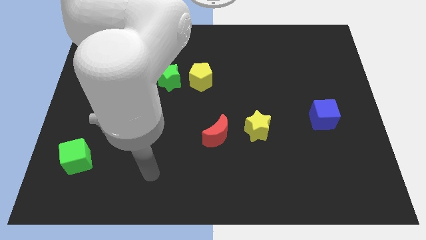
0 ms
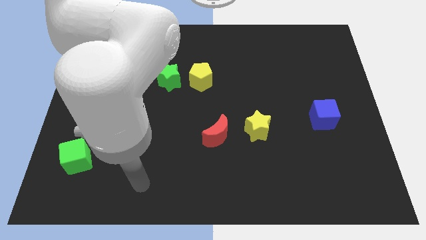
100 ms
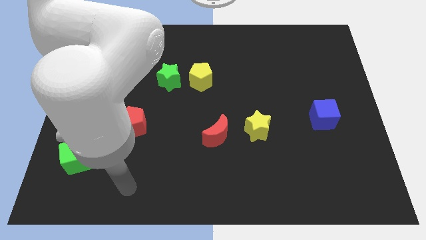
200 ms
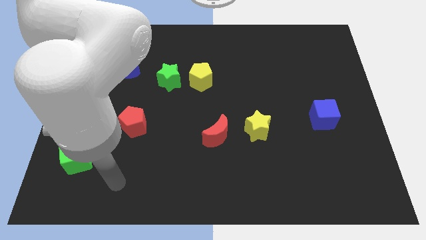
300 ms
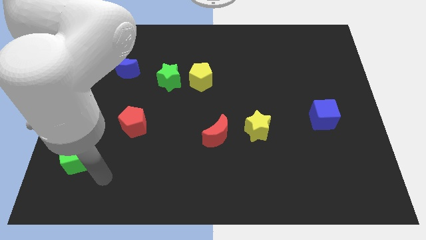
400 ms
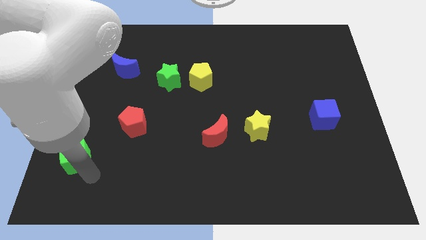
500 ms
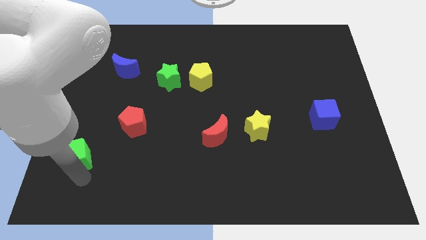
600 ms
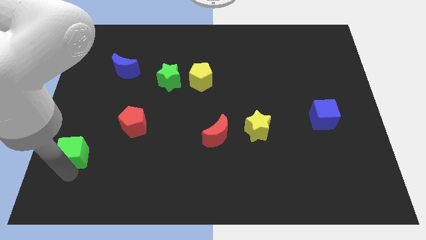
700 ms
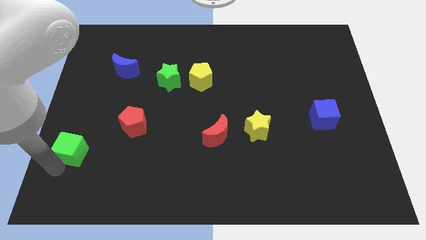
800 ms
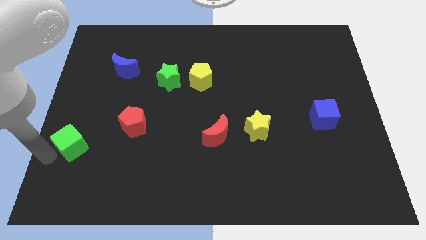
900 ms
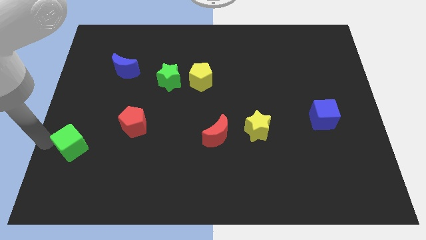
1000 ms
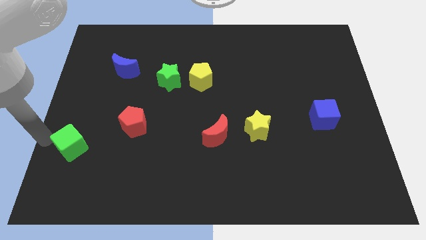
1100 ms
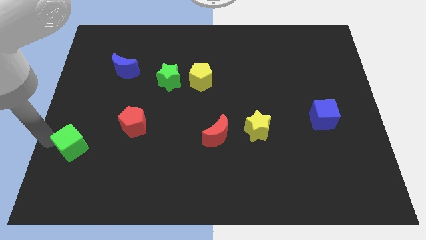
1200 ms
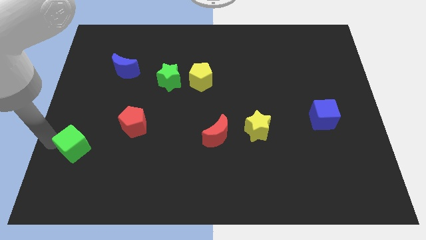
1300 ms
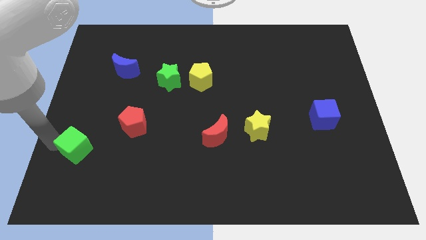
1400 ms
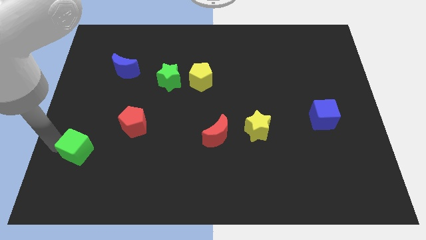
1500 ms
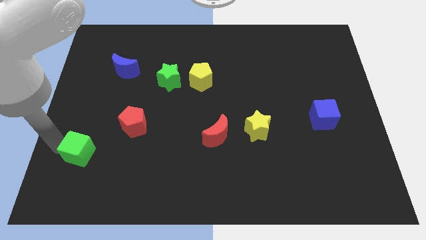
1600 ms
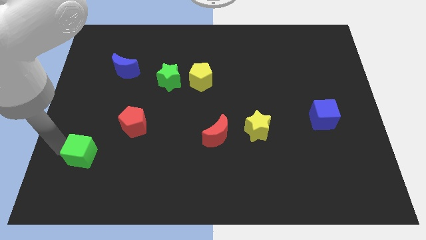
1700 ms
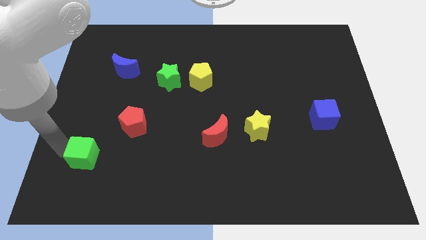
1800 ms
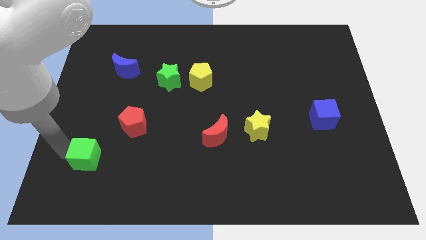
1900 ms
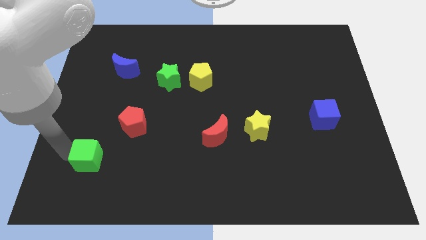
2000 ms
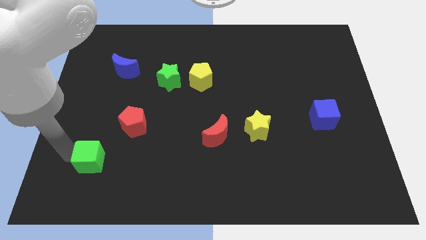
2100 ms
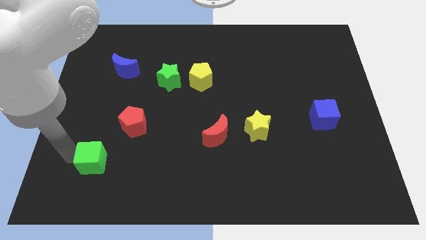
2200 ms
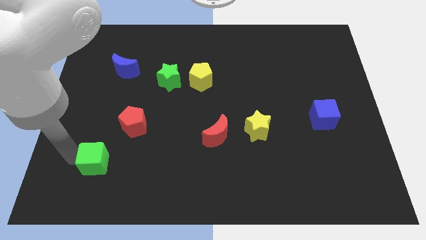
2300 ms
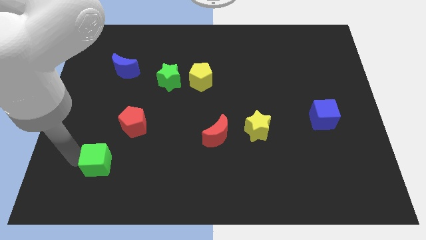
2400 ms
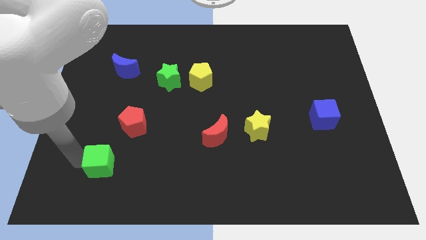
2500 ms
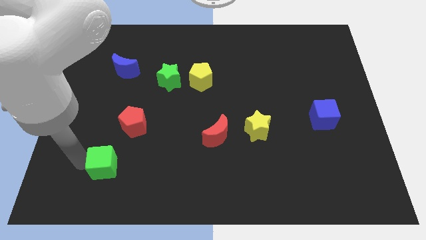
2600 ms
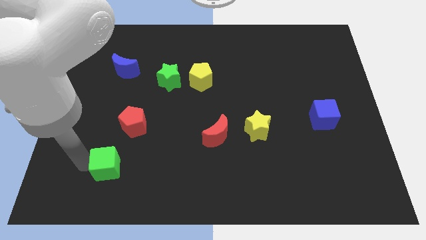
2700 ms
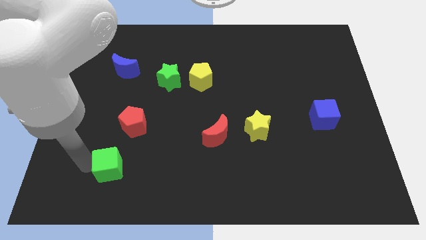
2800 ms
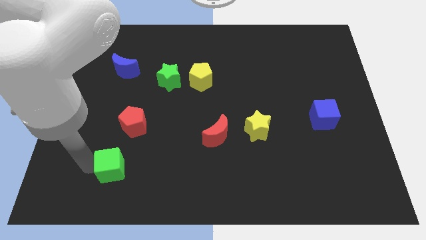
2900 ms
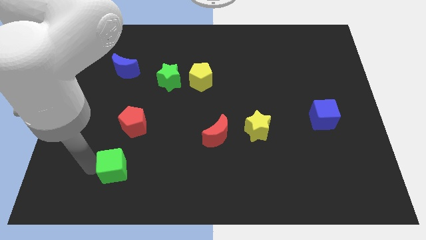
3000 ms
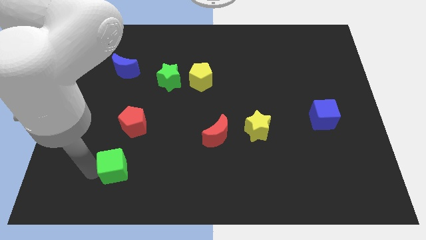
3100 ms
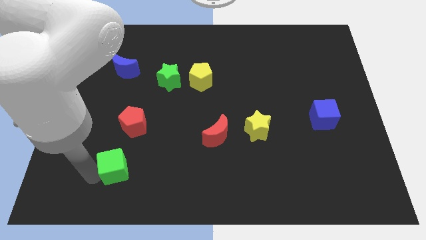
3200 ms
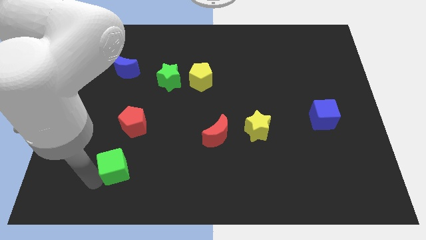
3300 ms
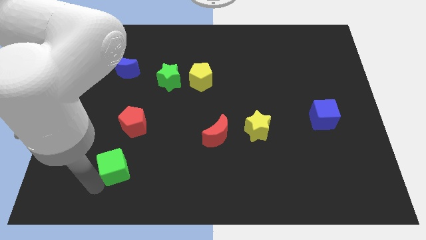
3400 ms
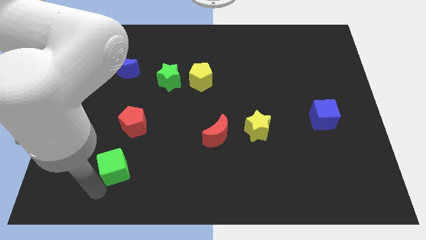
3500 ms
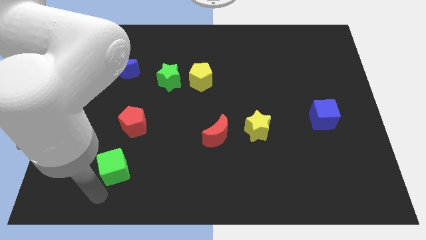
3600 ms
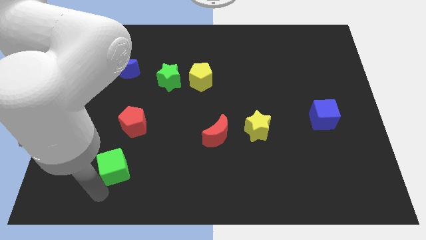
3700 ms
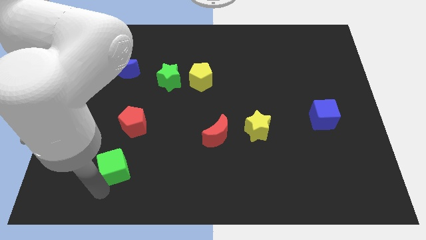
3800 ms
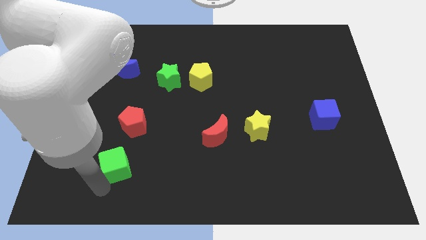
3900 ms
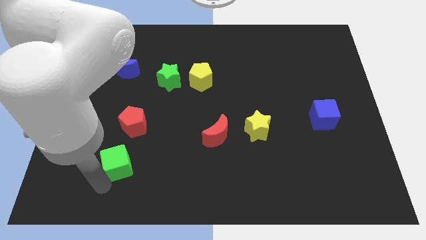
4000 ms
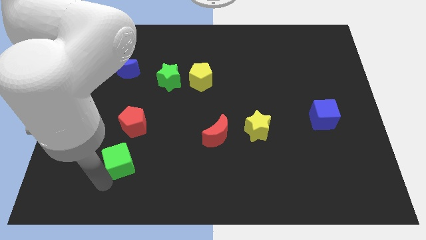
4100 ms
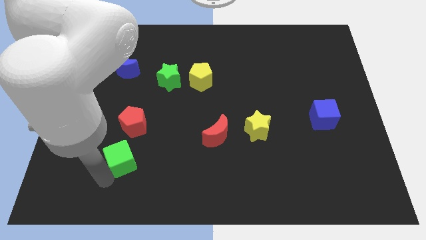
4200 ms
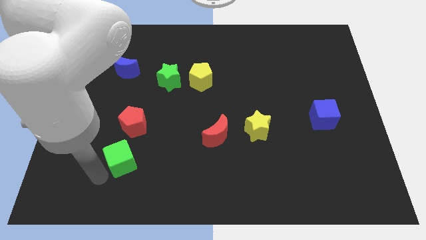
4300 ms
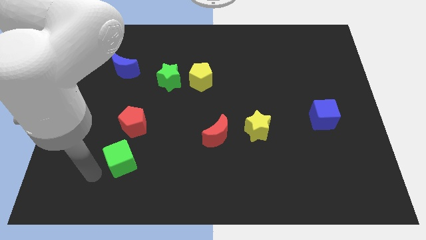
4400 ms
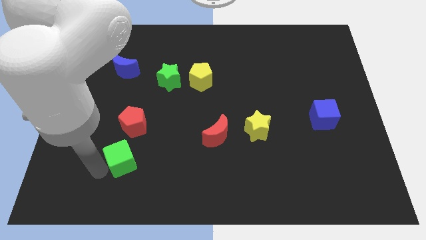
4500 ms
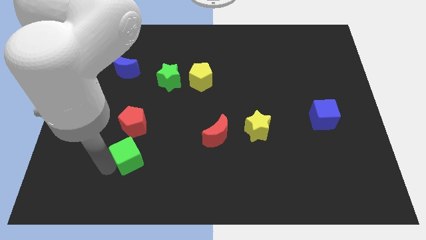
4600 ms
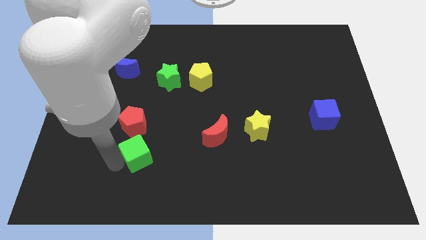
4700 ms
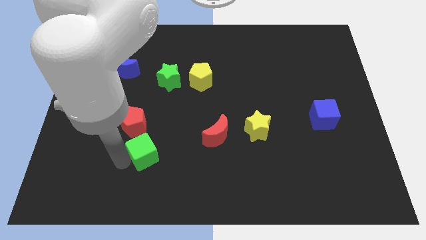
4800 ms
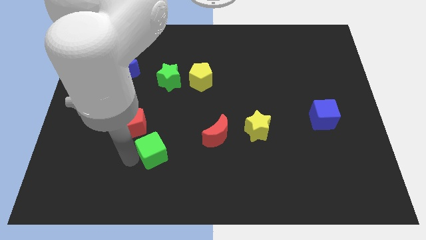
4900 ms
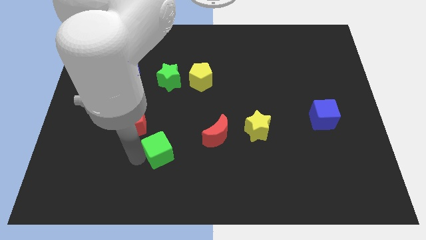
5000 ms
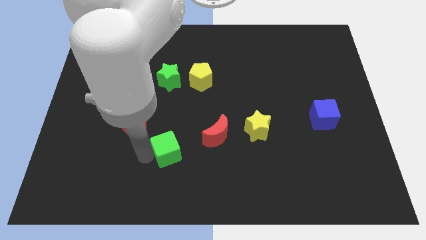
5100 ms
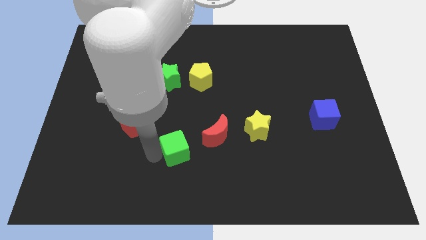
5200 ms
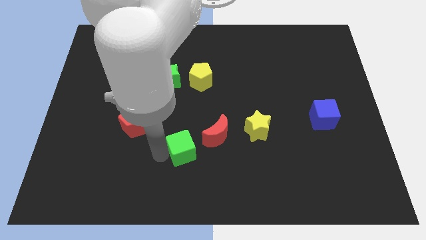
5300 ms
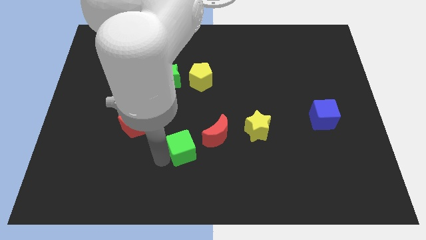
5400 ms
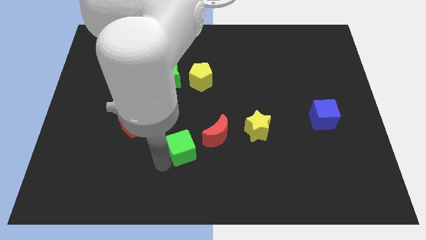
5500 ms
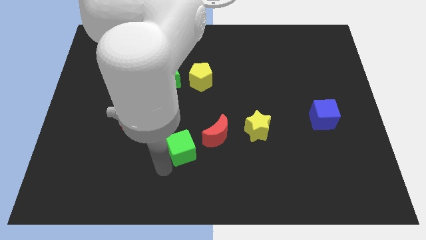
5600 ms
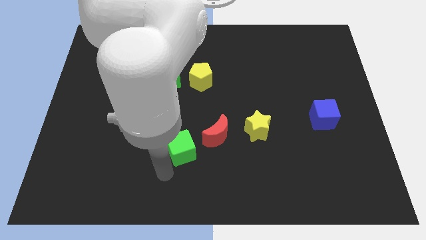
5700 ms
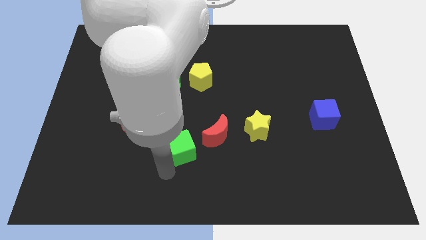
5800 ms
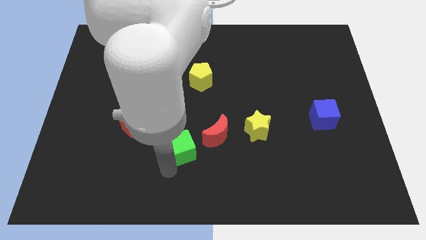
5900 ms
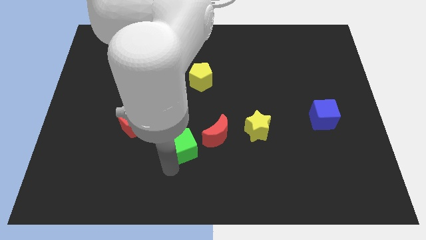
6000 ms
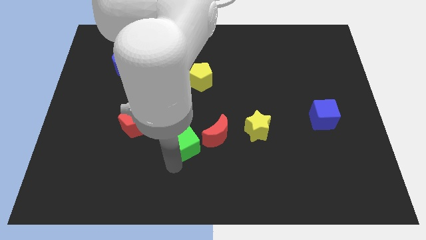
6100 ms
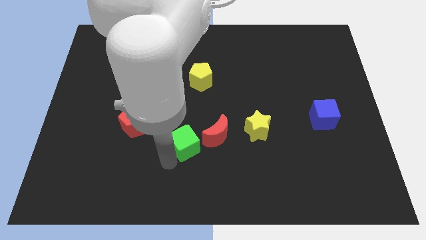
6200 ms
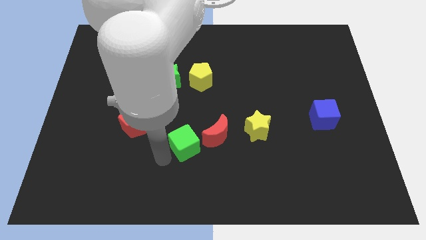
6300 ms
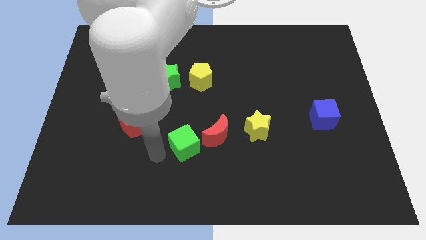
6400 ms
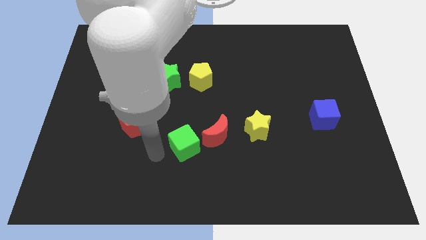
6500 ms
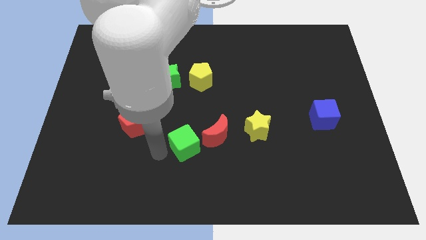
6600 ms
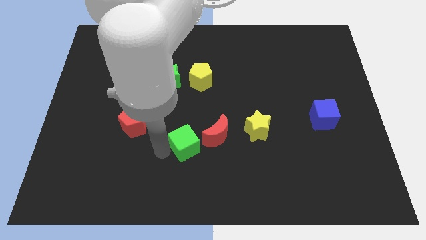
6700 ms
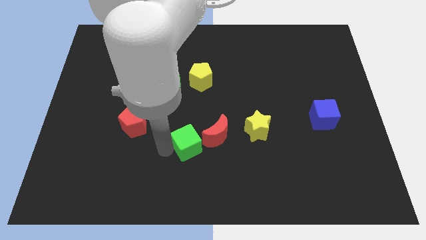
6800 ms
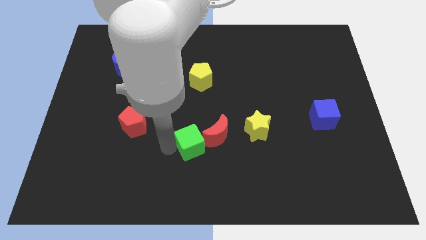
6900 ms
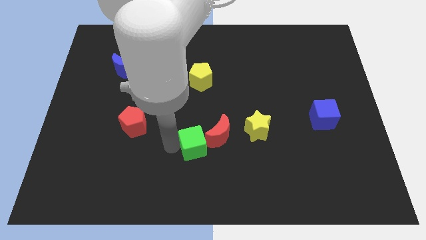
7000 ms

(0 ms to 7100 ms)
move the green cube next to the red moon

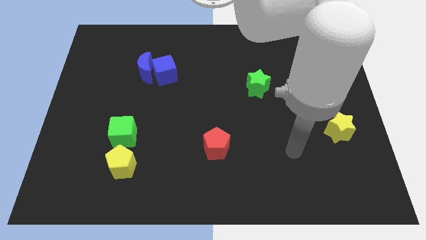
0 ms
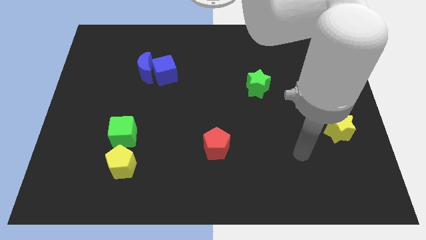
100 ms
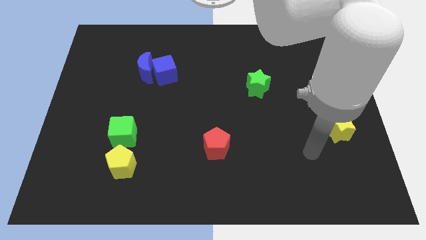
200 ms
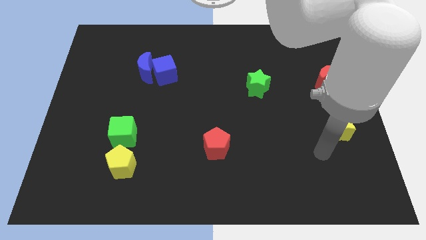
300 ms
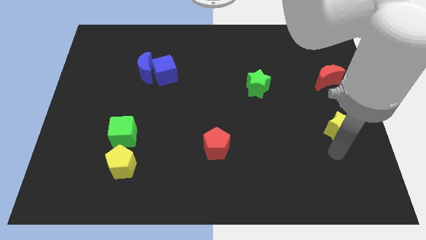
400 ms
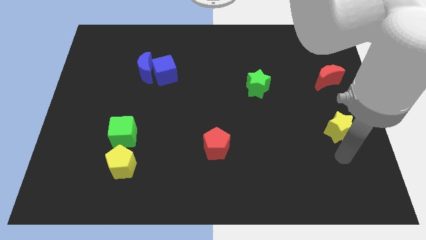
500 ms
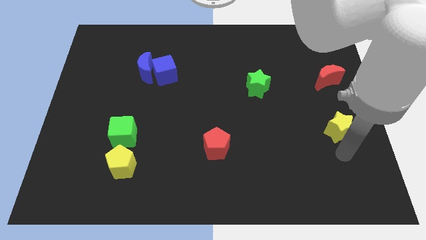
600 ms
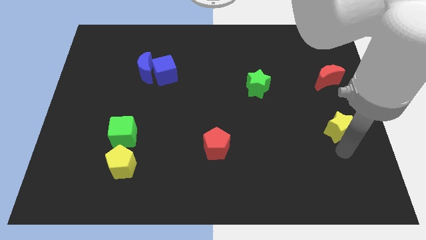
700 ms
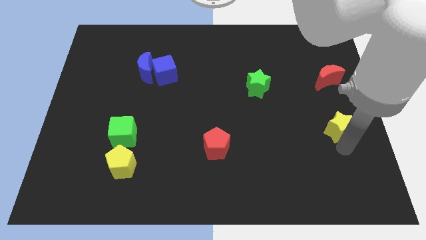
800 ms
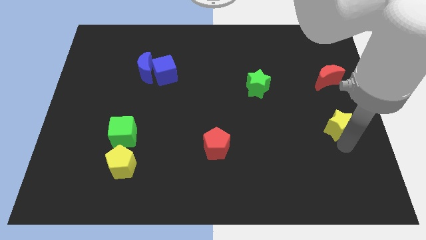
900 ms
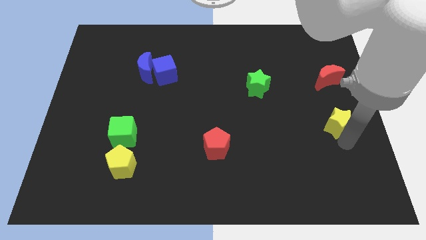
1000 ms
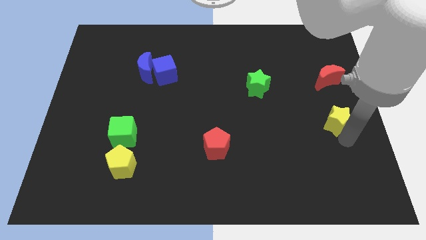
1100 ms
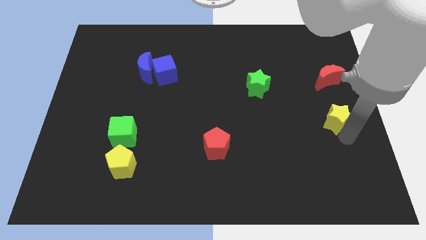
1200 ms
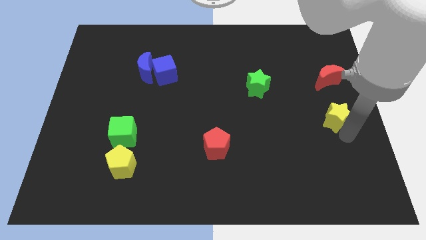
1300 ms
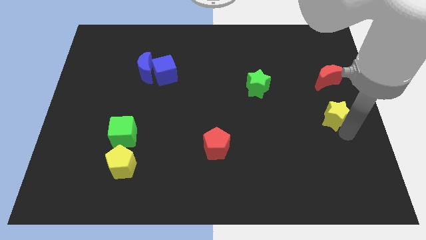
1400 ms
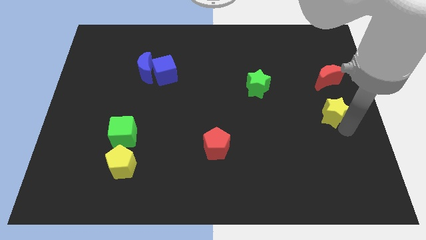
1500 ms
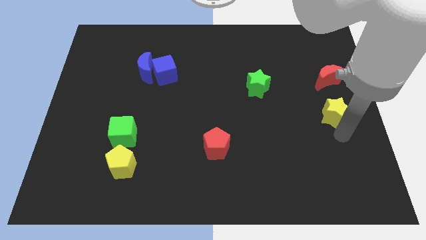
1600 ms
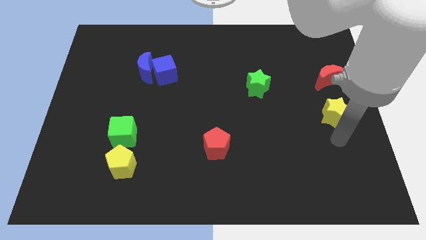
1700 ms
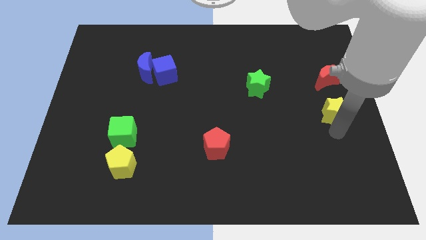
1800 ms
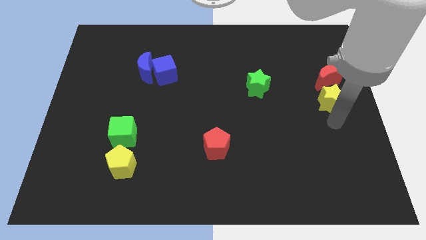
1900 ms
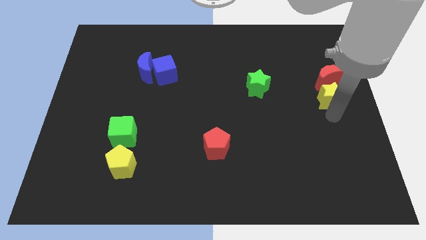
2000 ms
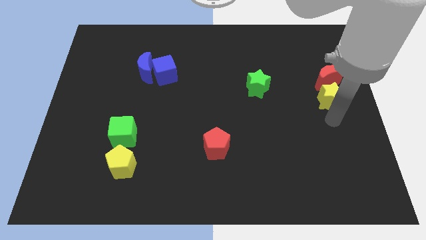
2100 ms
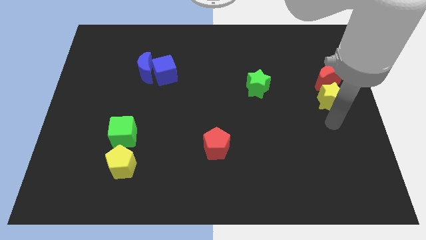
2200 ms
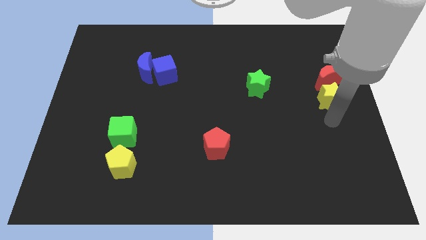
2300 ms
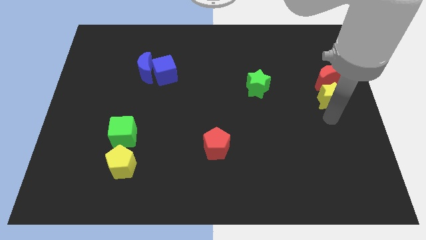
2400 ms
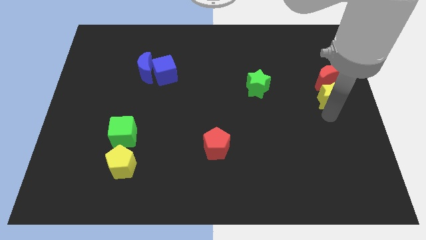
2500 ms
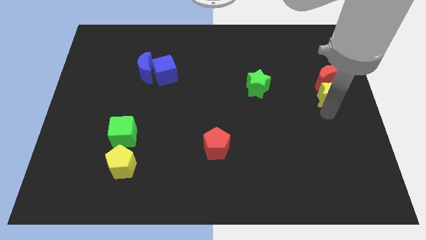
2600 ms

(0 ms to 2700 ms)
slide the yellow star towards the red moon
